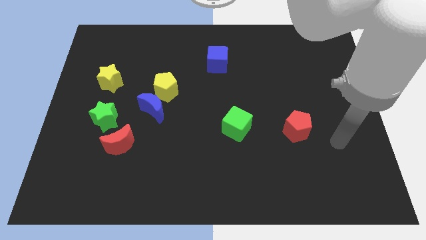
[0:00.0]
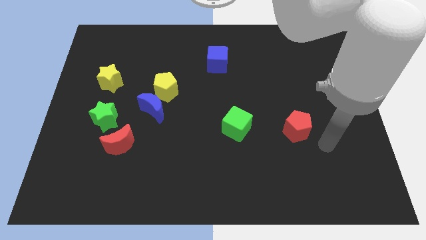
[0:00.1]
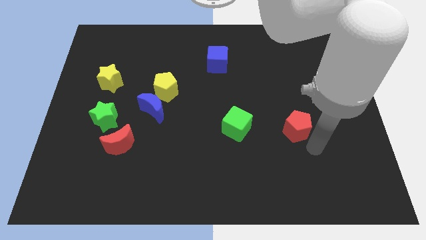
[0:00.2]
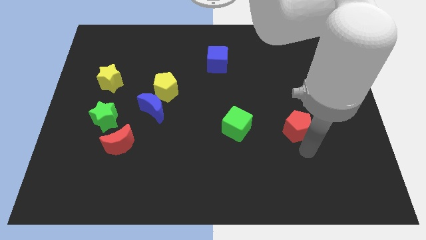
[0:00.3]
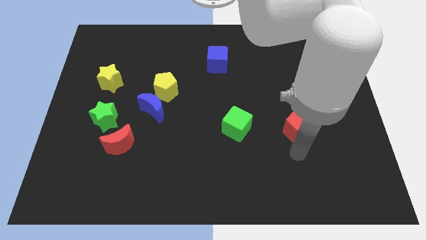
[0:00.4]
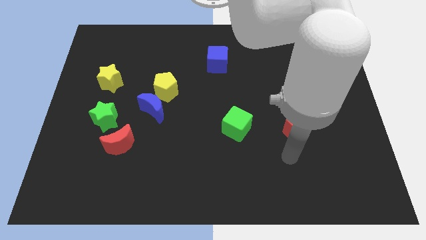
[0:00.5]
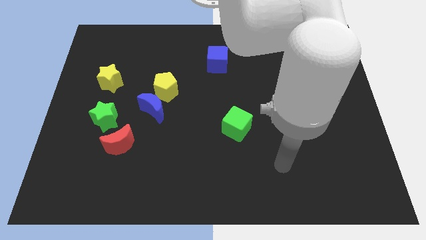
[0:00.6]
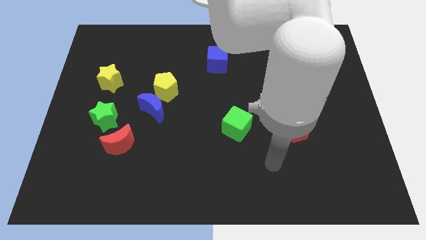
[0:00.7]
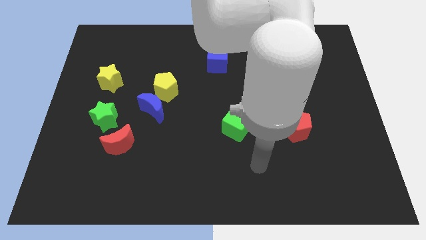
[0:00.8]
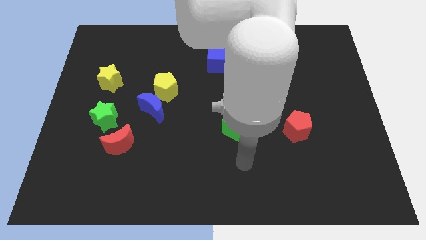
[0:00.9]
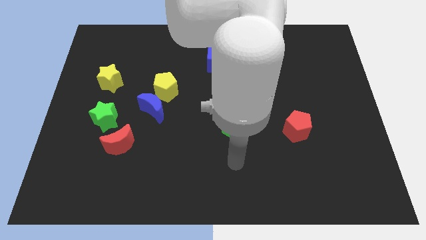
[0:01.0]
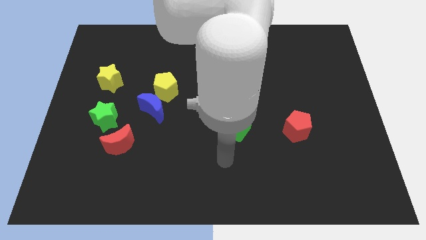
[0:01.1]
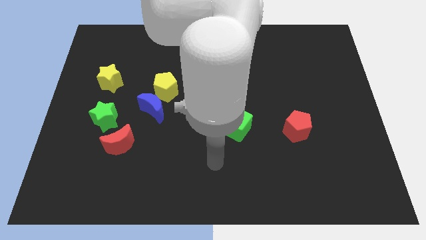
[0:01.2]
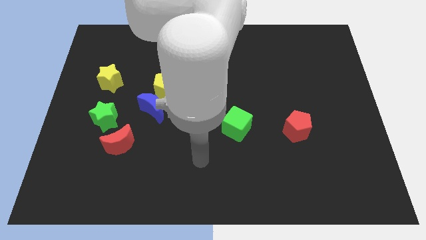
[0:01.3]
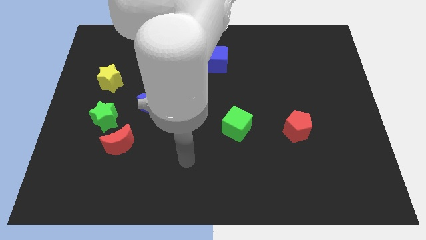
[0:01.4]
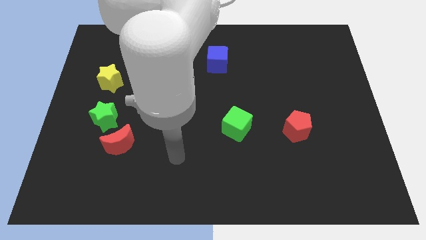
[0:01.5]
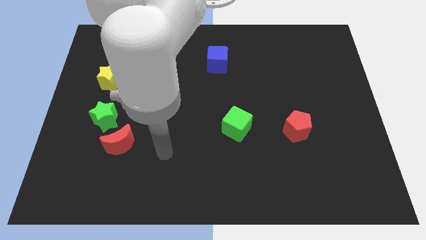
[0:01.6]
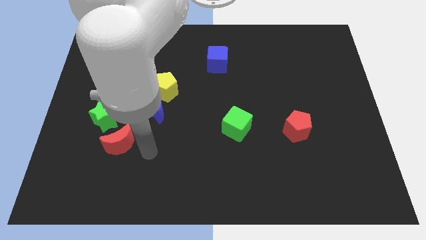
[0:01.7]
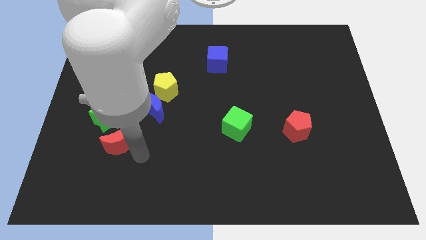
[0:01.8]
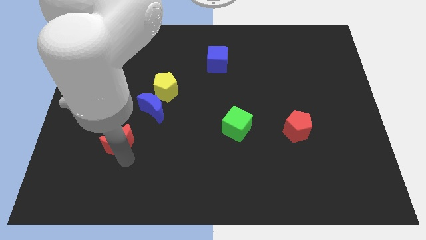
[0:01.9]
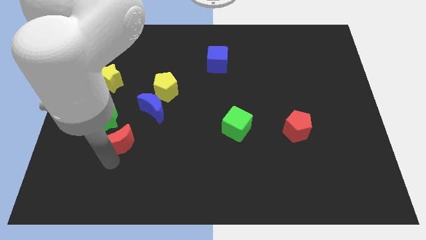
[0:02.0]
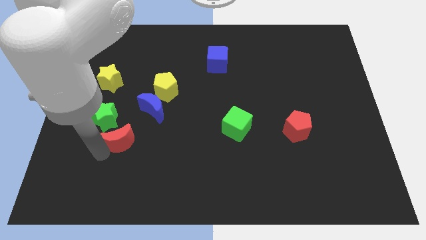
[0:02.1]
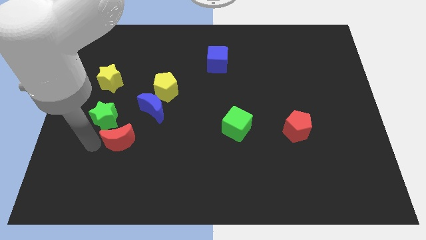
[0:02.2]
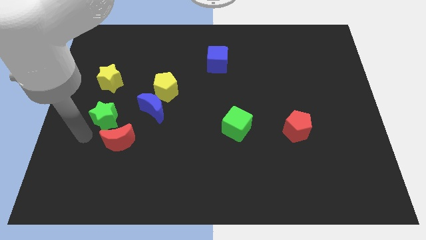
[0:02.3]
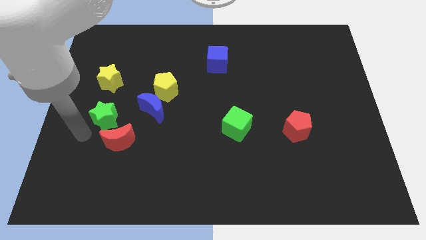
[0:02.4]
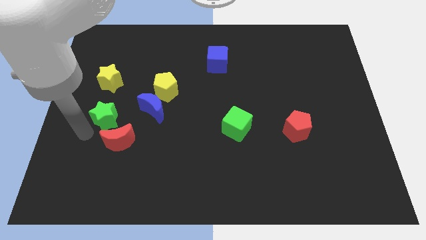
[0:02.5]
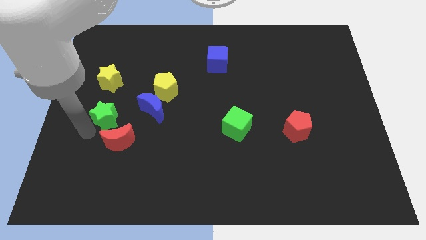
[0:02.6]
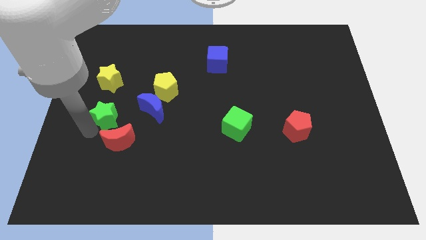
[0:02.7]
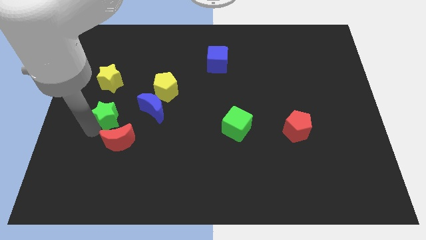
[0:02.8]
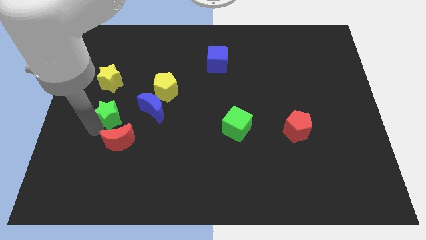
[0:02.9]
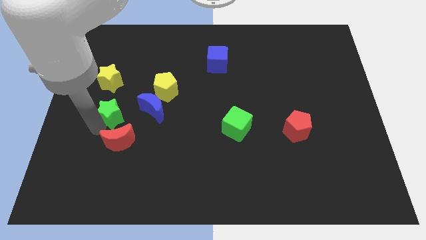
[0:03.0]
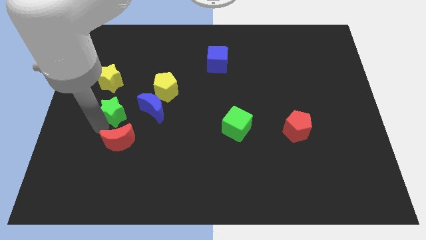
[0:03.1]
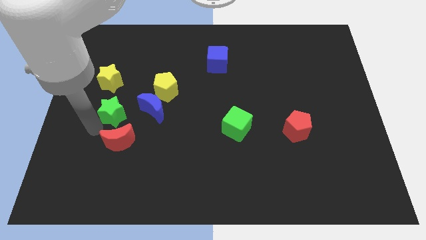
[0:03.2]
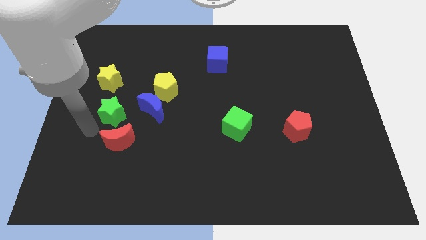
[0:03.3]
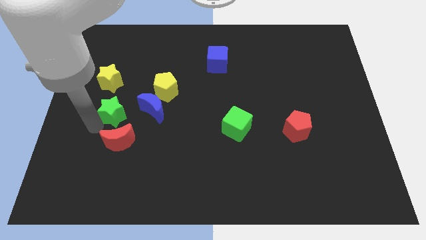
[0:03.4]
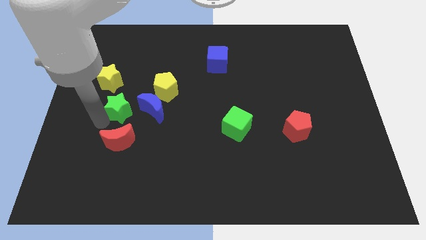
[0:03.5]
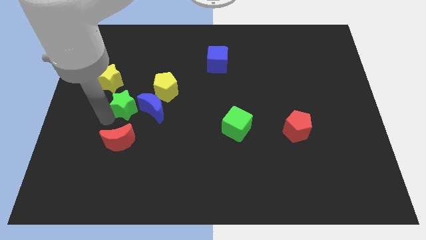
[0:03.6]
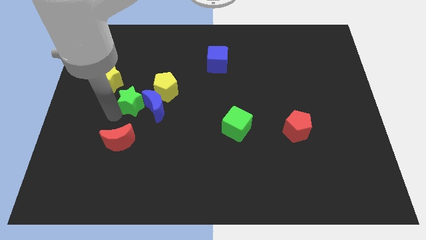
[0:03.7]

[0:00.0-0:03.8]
slide the green star a little diagonally up and right

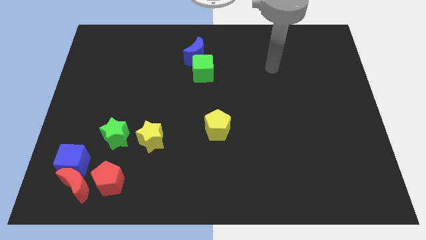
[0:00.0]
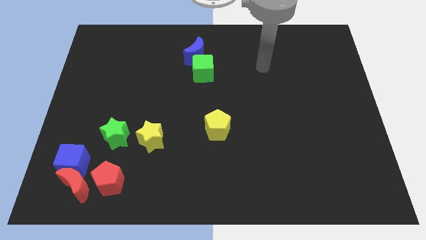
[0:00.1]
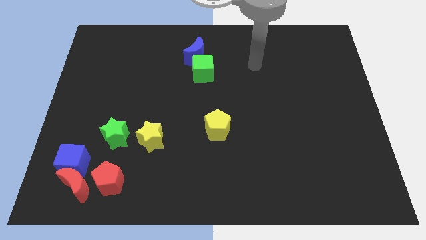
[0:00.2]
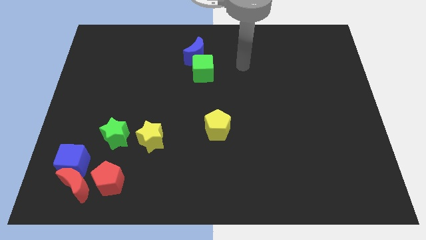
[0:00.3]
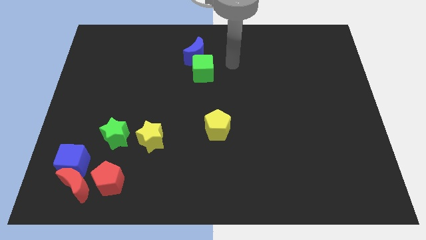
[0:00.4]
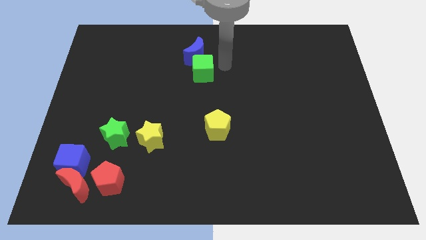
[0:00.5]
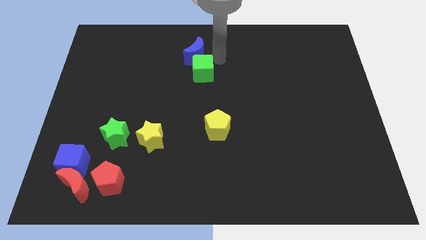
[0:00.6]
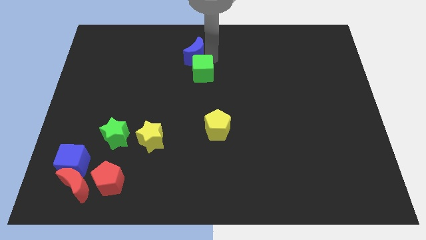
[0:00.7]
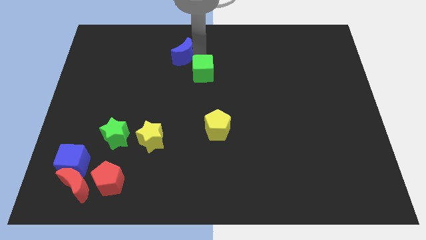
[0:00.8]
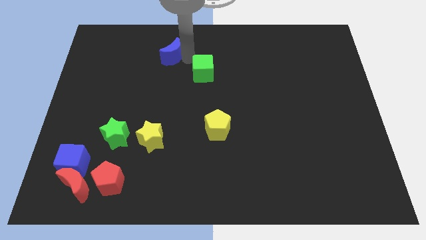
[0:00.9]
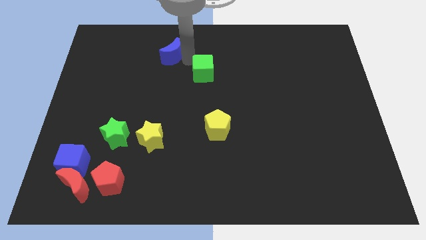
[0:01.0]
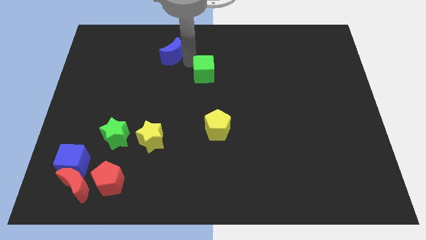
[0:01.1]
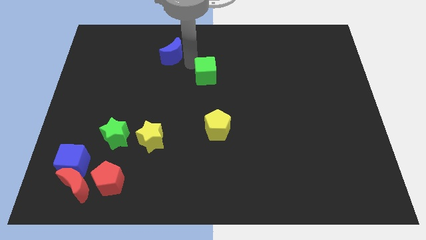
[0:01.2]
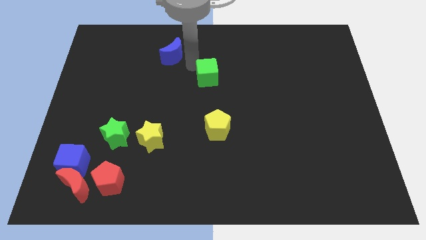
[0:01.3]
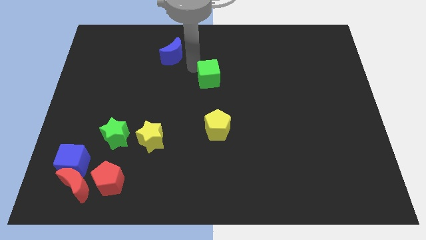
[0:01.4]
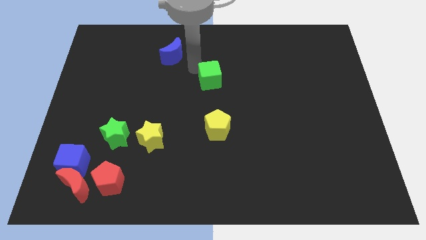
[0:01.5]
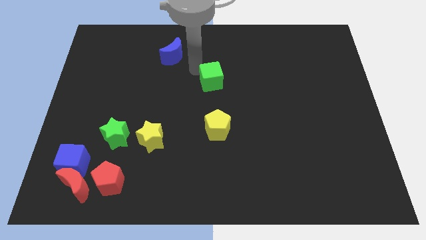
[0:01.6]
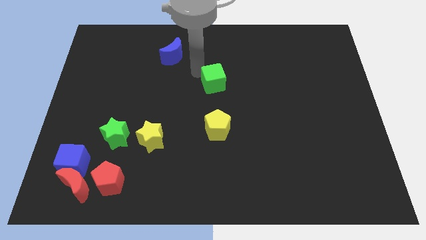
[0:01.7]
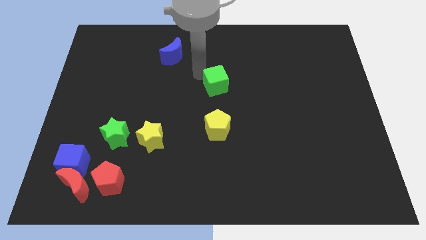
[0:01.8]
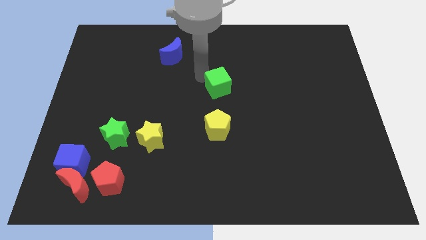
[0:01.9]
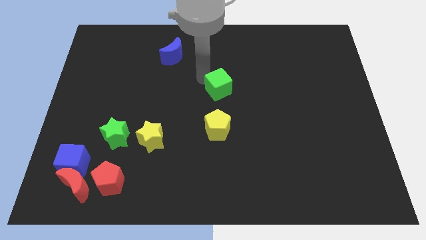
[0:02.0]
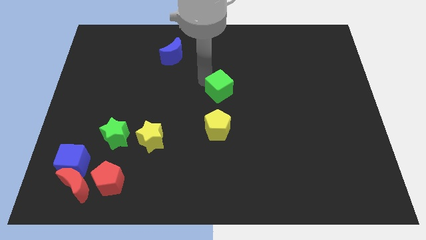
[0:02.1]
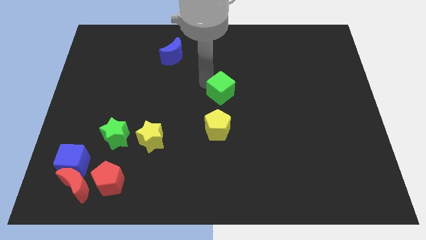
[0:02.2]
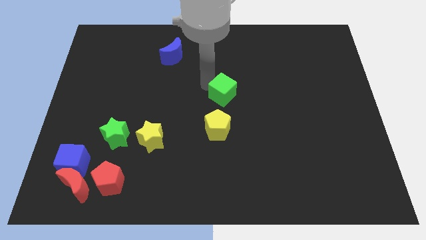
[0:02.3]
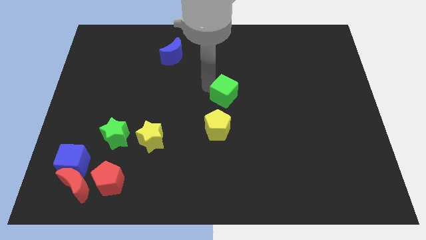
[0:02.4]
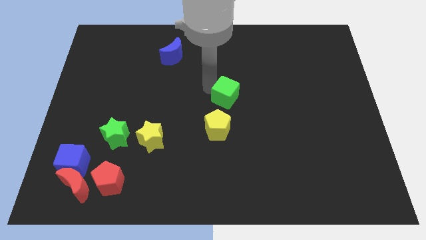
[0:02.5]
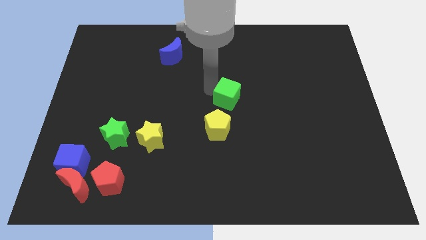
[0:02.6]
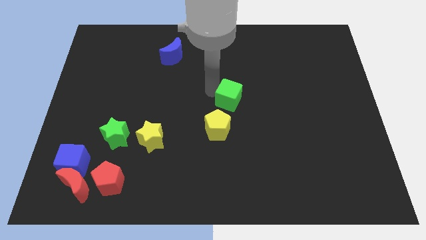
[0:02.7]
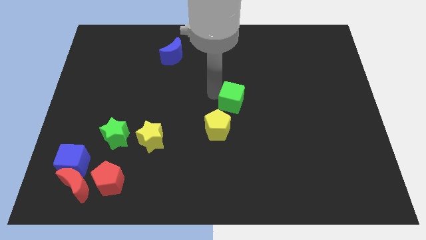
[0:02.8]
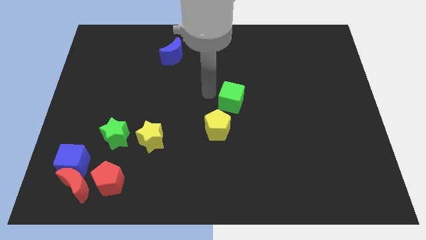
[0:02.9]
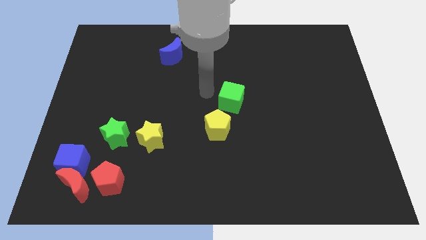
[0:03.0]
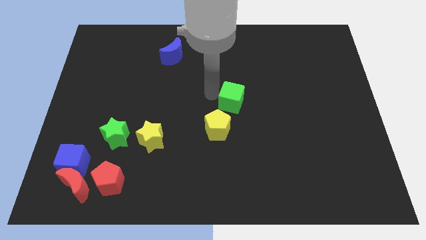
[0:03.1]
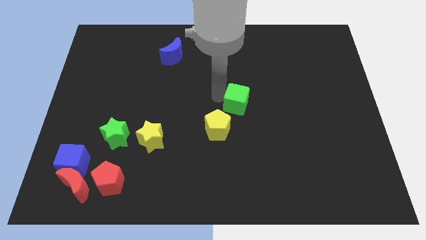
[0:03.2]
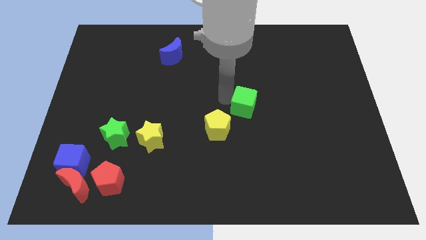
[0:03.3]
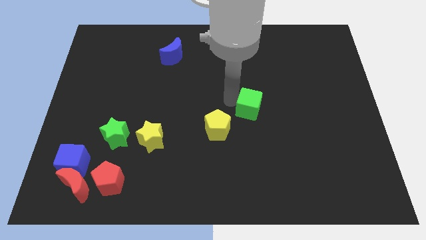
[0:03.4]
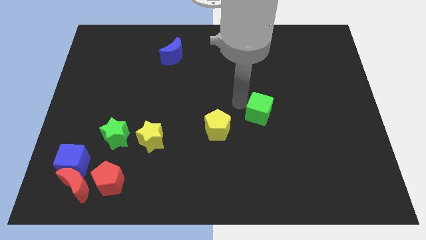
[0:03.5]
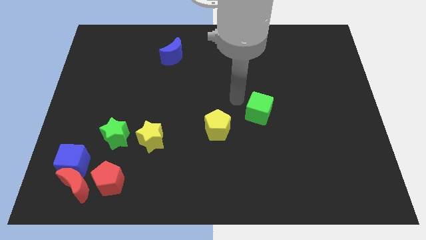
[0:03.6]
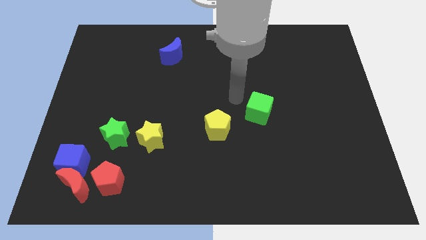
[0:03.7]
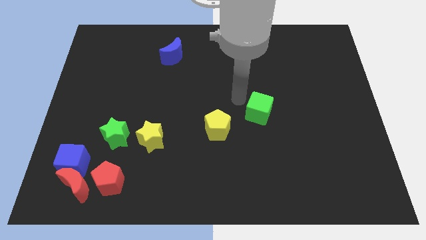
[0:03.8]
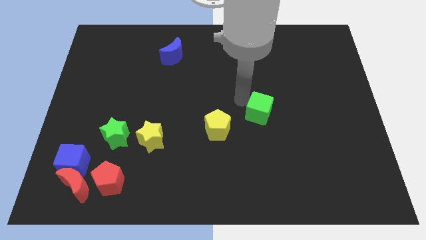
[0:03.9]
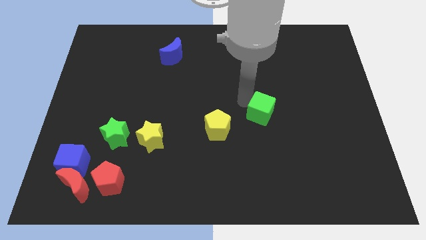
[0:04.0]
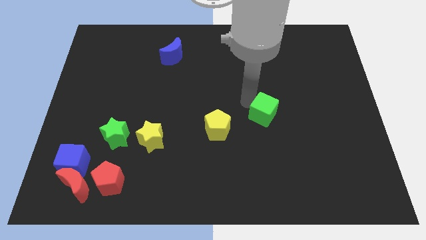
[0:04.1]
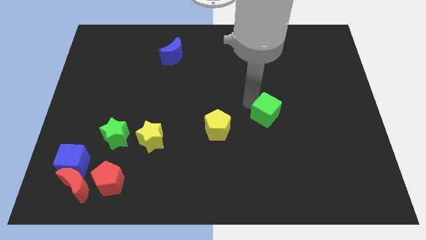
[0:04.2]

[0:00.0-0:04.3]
slide the green cube down and then to the right

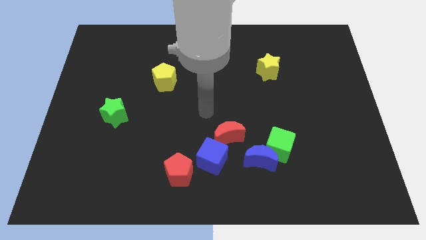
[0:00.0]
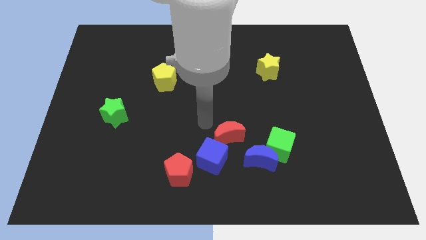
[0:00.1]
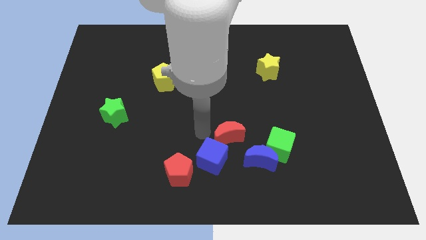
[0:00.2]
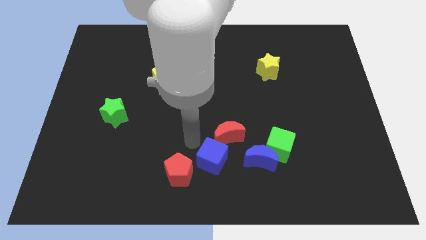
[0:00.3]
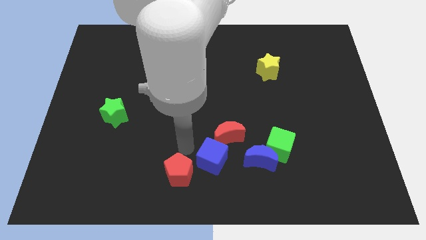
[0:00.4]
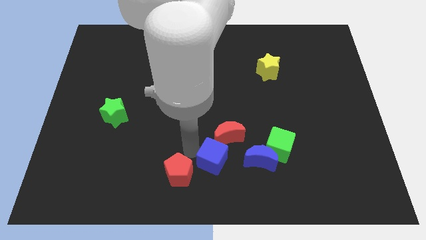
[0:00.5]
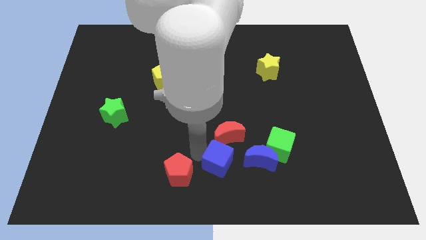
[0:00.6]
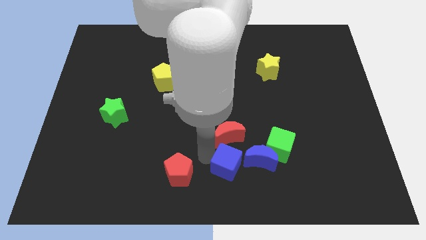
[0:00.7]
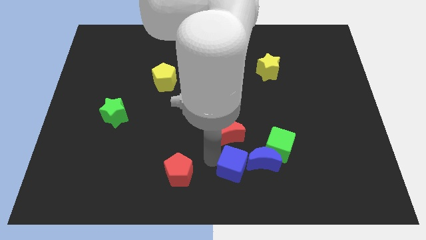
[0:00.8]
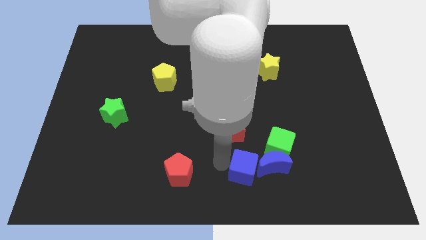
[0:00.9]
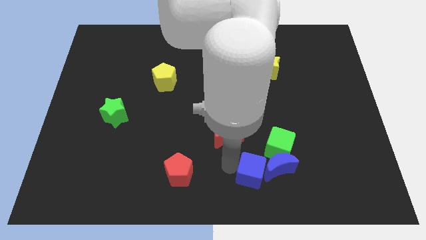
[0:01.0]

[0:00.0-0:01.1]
slide the blue cube to the right somewhat
